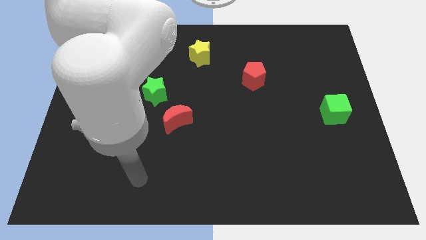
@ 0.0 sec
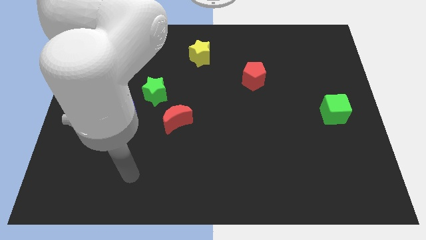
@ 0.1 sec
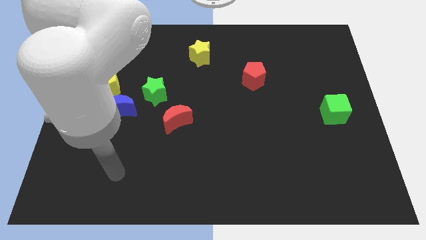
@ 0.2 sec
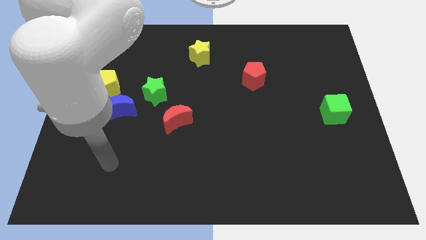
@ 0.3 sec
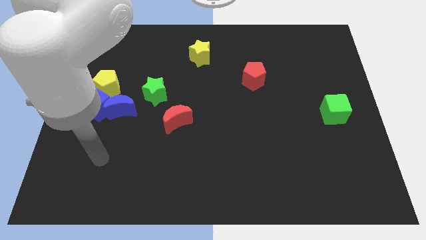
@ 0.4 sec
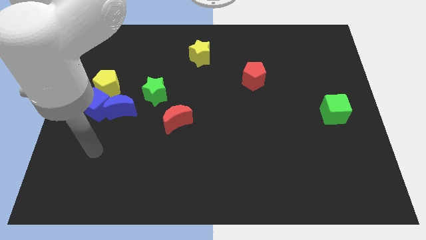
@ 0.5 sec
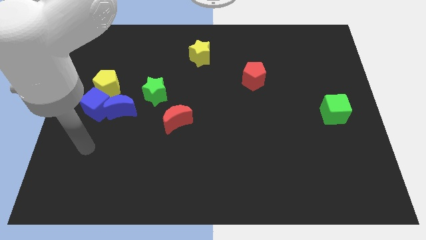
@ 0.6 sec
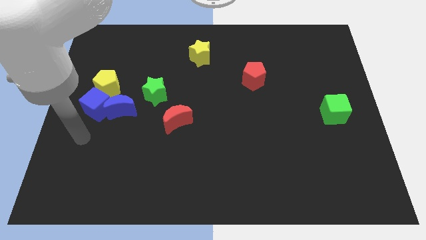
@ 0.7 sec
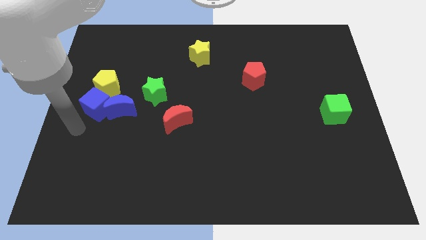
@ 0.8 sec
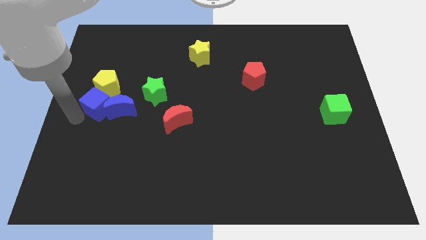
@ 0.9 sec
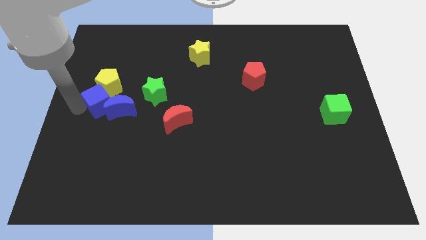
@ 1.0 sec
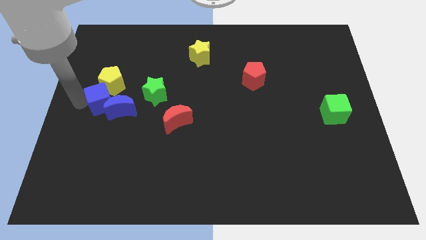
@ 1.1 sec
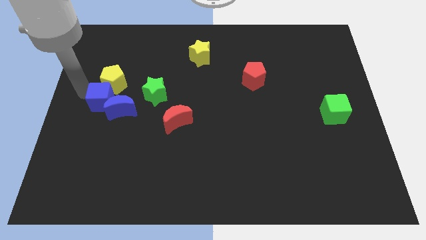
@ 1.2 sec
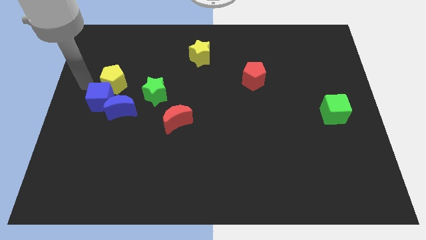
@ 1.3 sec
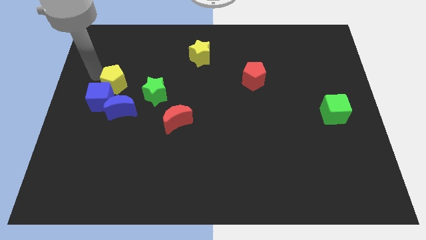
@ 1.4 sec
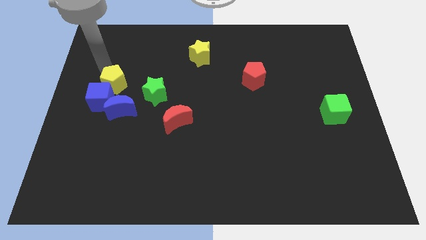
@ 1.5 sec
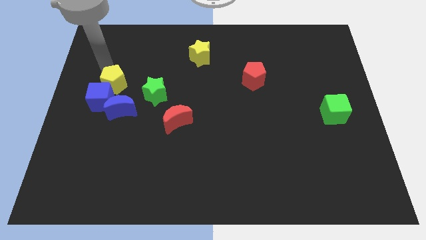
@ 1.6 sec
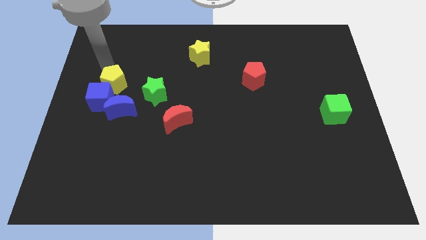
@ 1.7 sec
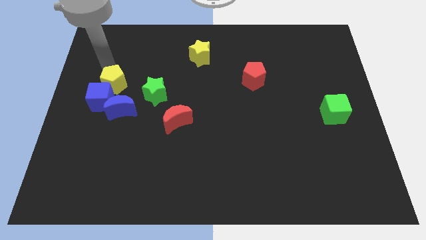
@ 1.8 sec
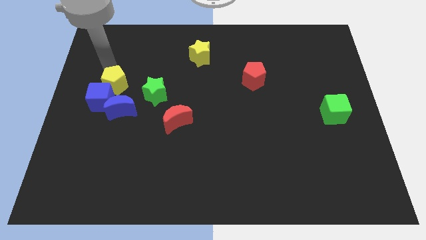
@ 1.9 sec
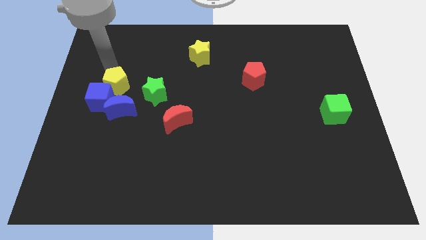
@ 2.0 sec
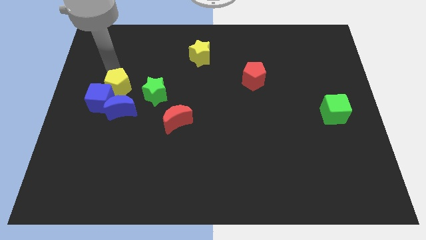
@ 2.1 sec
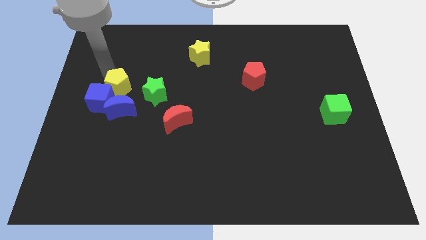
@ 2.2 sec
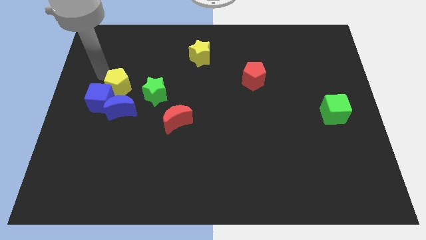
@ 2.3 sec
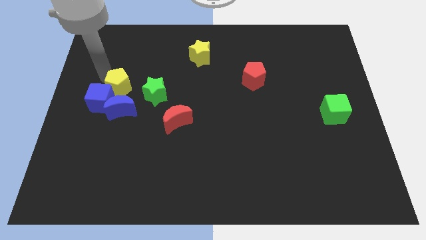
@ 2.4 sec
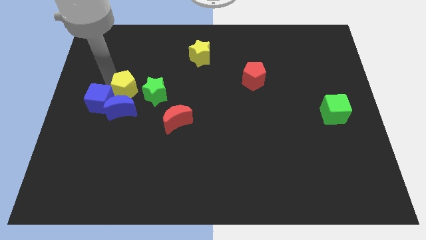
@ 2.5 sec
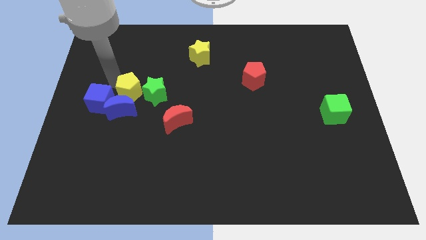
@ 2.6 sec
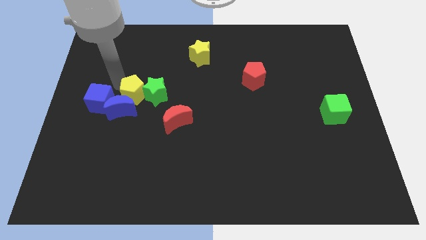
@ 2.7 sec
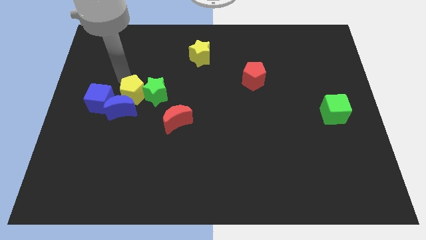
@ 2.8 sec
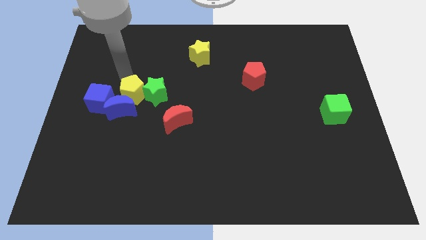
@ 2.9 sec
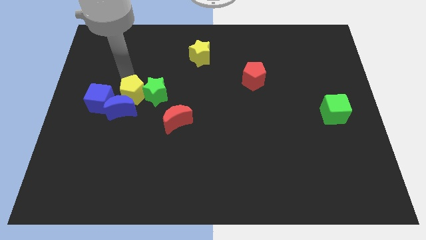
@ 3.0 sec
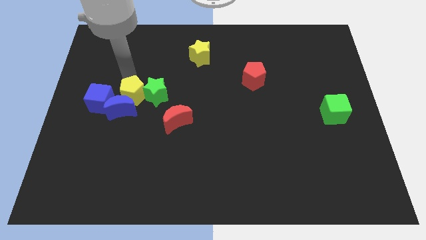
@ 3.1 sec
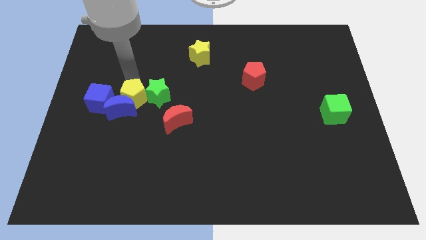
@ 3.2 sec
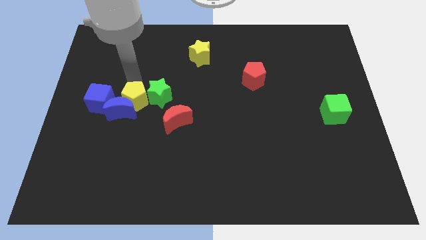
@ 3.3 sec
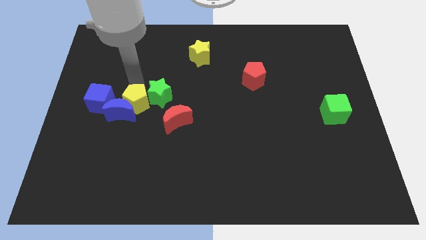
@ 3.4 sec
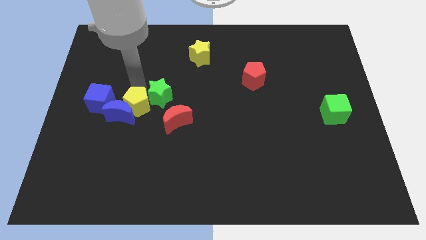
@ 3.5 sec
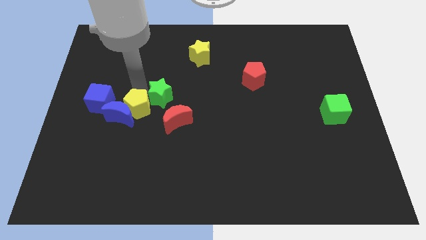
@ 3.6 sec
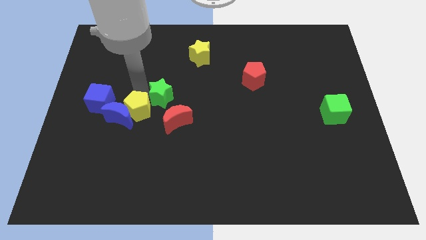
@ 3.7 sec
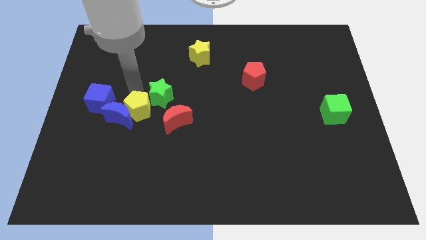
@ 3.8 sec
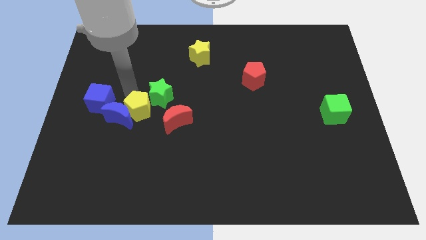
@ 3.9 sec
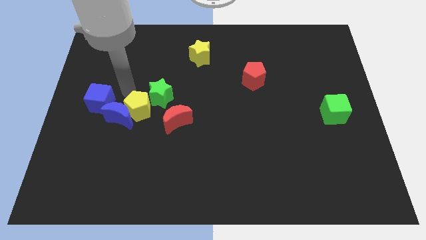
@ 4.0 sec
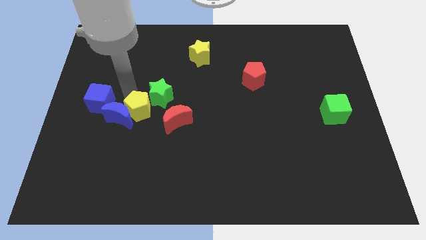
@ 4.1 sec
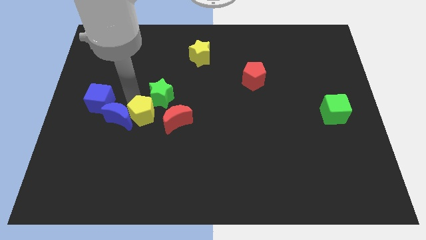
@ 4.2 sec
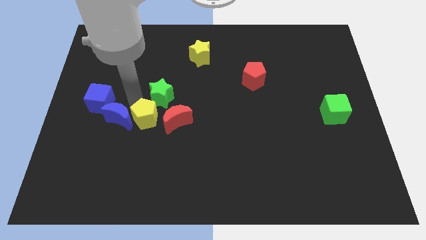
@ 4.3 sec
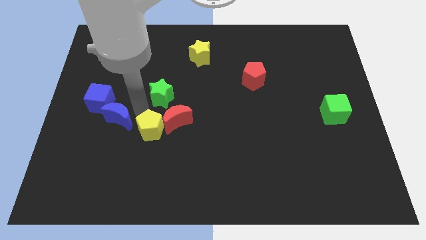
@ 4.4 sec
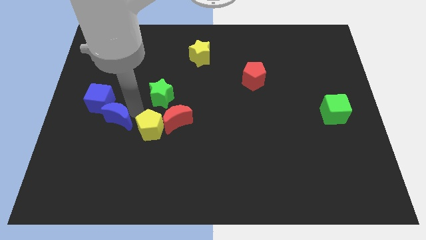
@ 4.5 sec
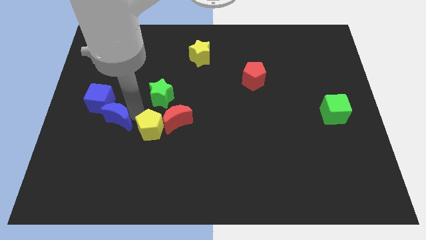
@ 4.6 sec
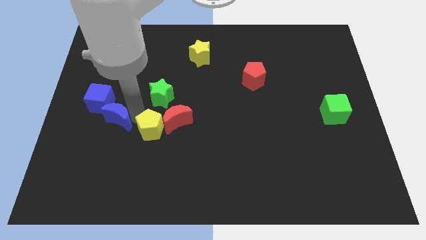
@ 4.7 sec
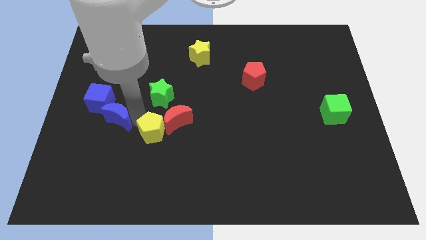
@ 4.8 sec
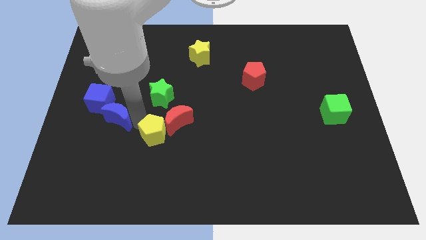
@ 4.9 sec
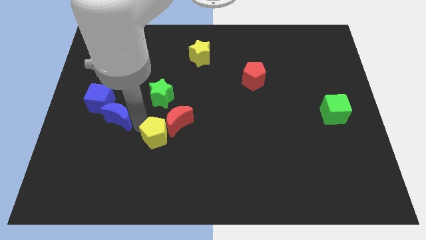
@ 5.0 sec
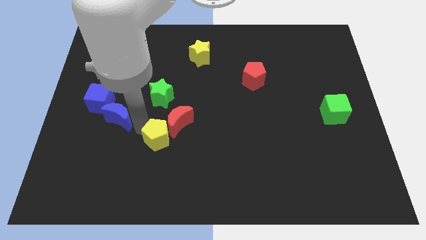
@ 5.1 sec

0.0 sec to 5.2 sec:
slide the yellow pentagon diagonally downwards and to the right

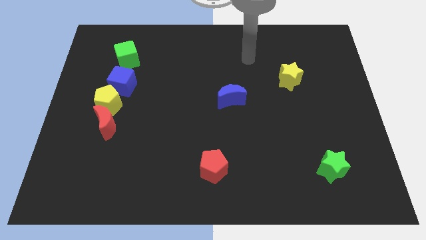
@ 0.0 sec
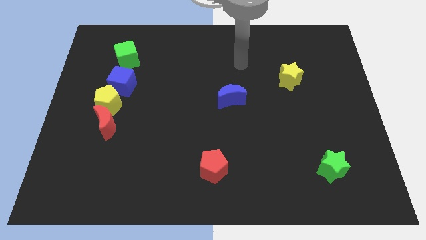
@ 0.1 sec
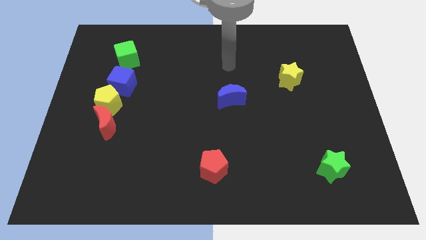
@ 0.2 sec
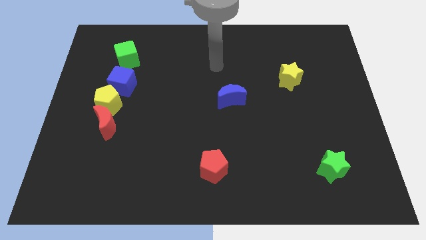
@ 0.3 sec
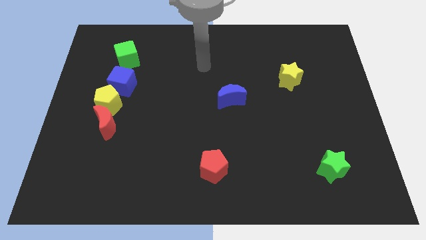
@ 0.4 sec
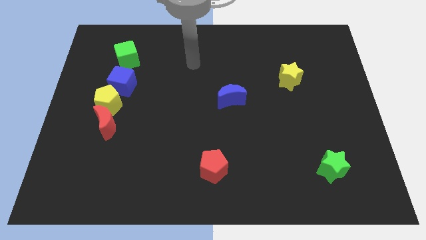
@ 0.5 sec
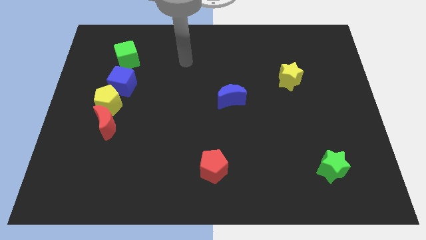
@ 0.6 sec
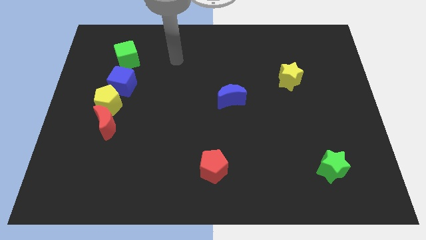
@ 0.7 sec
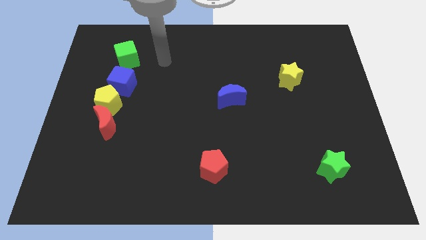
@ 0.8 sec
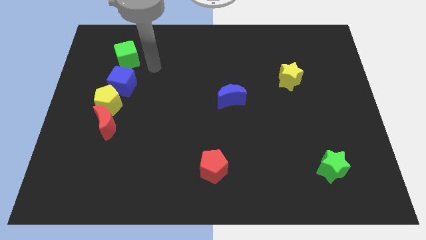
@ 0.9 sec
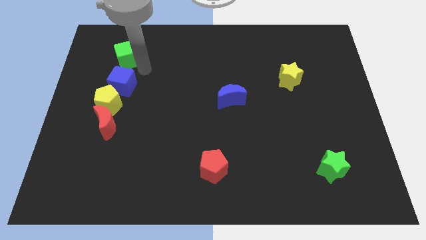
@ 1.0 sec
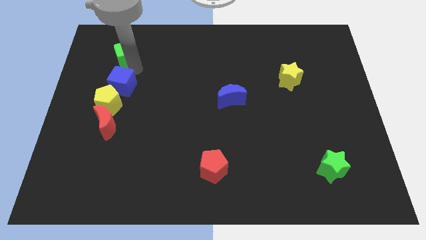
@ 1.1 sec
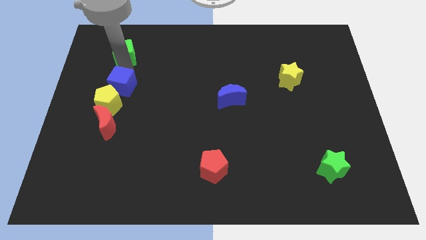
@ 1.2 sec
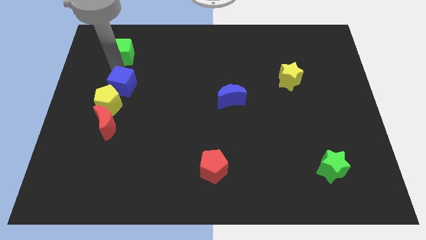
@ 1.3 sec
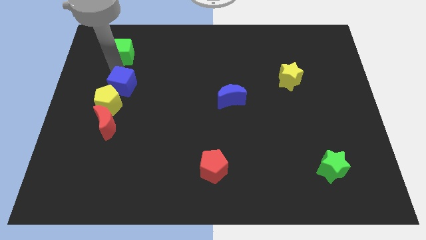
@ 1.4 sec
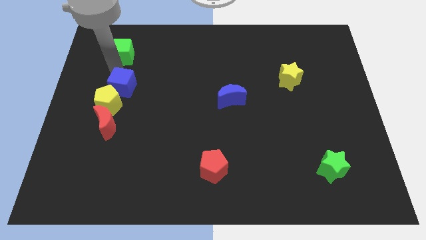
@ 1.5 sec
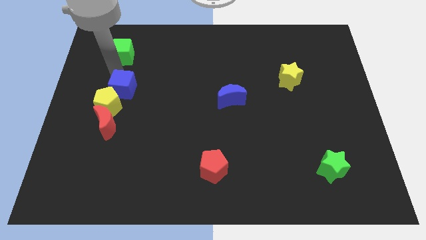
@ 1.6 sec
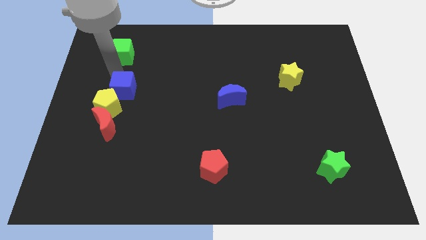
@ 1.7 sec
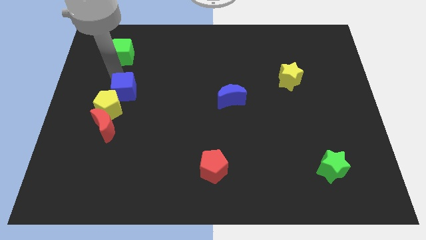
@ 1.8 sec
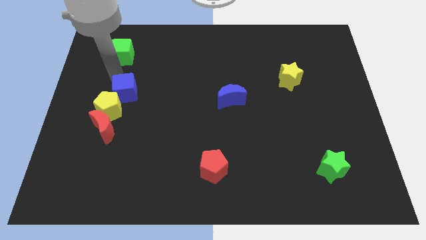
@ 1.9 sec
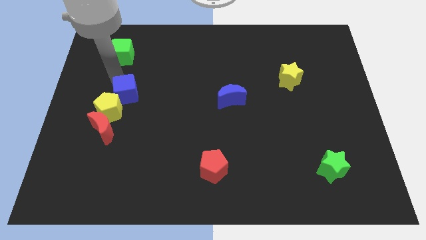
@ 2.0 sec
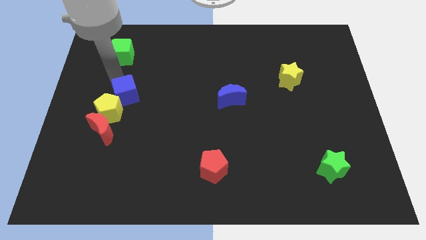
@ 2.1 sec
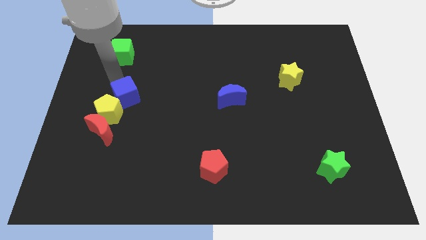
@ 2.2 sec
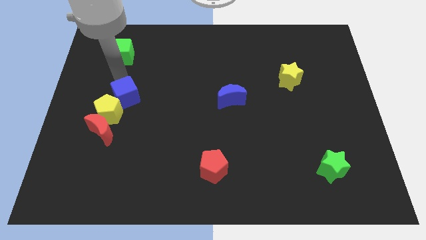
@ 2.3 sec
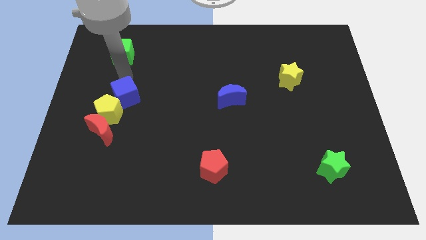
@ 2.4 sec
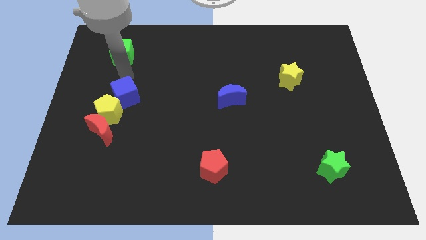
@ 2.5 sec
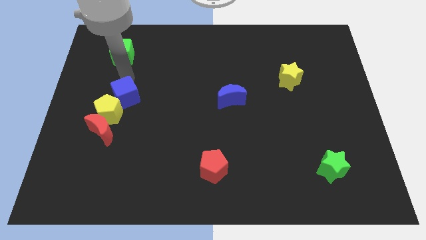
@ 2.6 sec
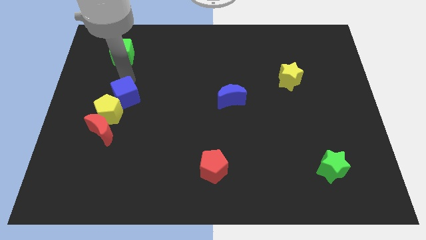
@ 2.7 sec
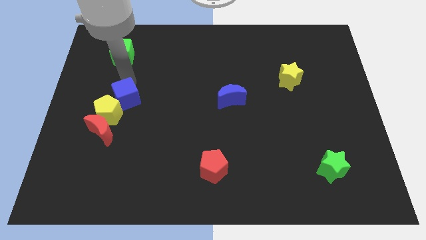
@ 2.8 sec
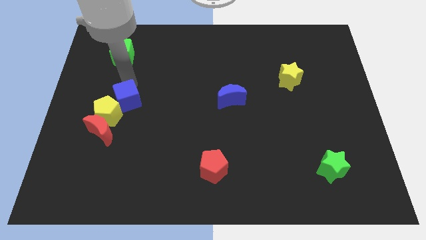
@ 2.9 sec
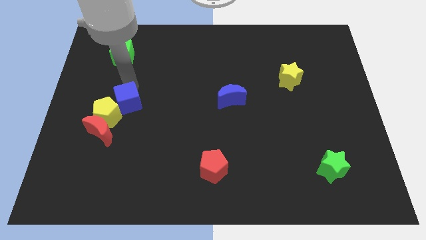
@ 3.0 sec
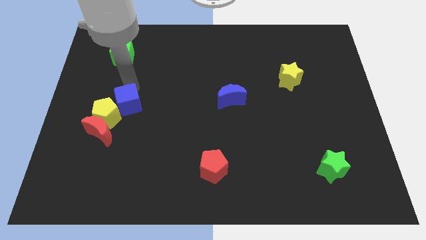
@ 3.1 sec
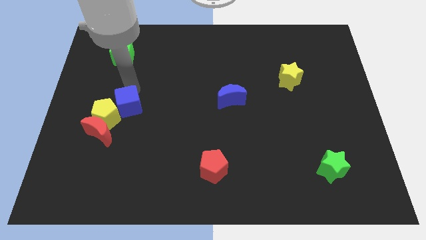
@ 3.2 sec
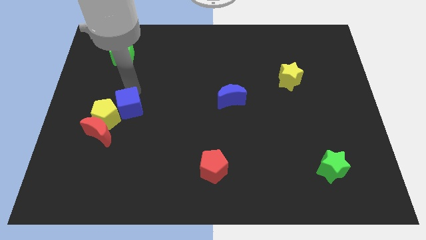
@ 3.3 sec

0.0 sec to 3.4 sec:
slide the blue cube somewhat down
